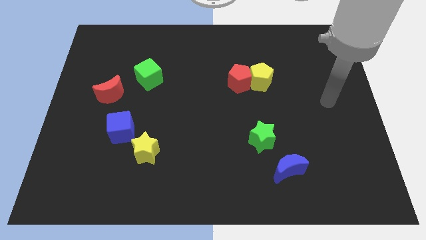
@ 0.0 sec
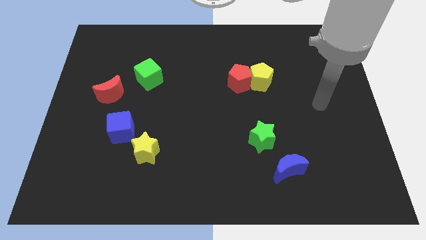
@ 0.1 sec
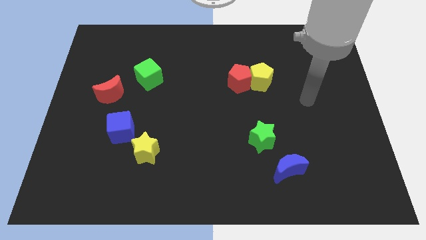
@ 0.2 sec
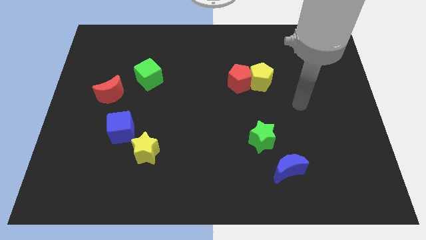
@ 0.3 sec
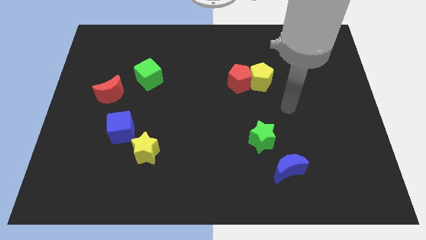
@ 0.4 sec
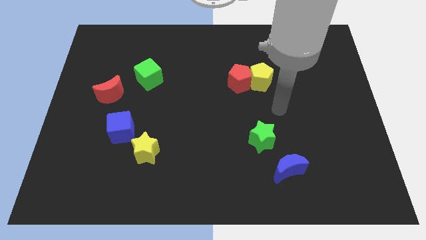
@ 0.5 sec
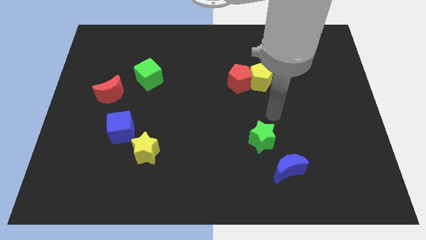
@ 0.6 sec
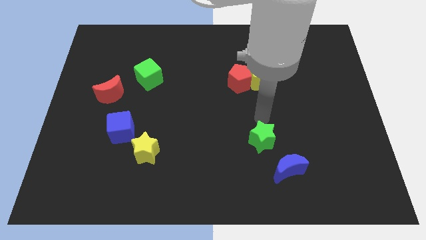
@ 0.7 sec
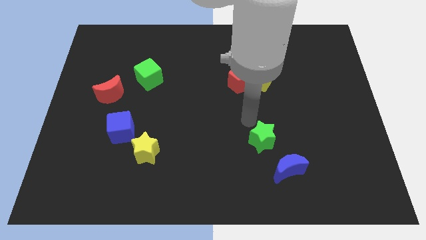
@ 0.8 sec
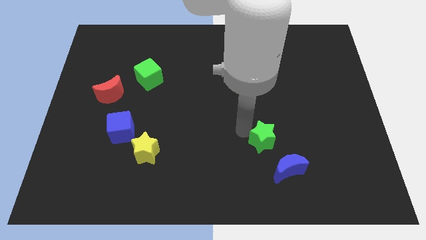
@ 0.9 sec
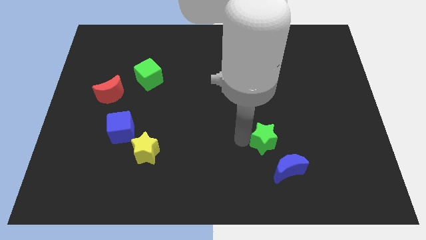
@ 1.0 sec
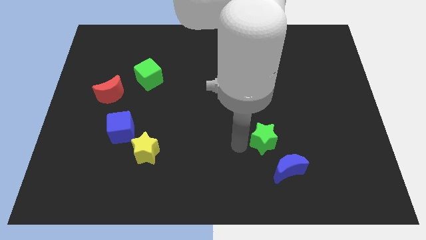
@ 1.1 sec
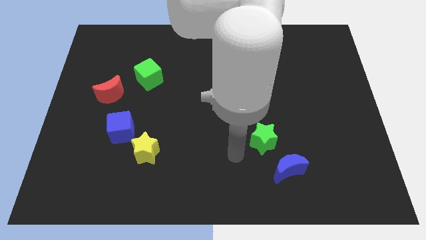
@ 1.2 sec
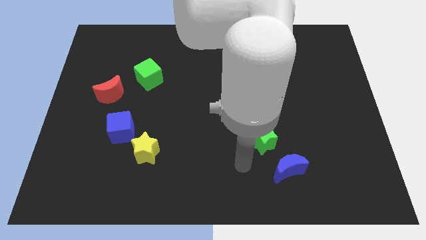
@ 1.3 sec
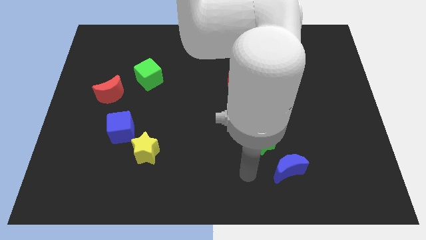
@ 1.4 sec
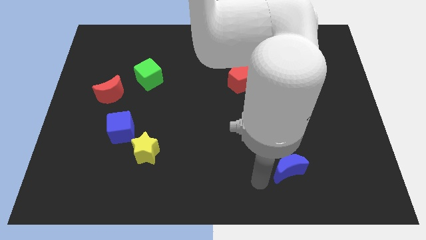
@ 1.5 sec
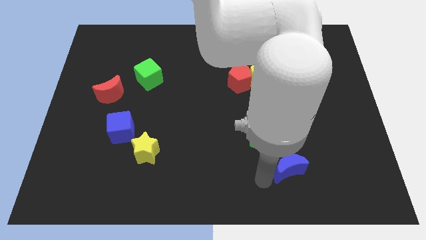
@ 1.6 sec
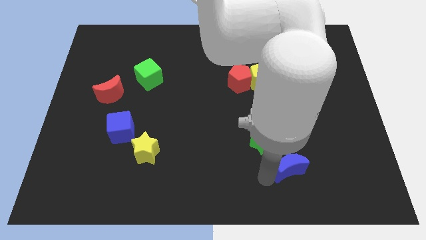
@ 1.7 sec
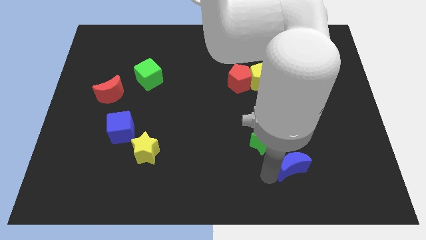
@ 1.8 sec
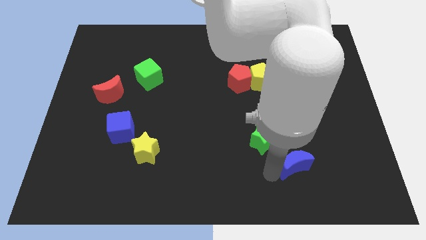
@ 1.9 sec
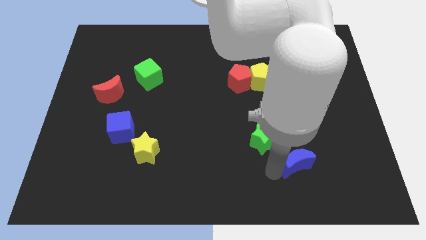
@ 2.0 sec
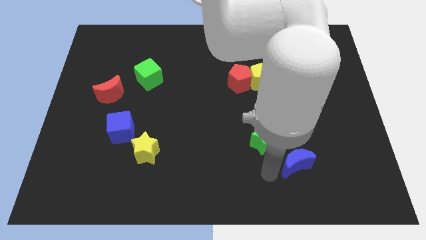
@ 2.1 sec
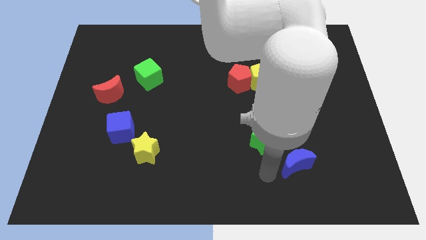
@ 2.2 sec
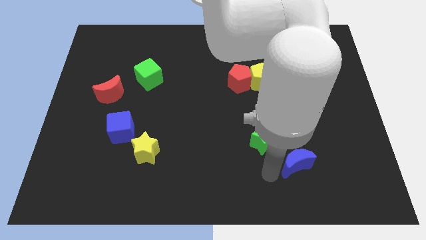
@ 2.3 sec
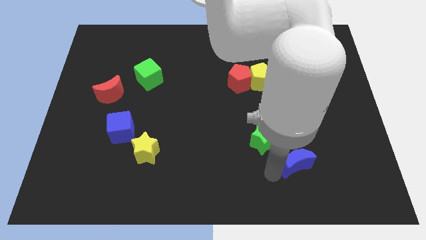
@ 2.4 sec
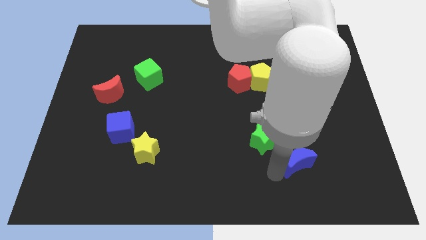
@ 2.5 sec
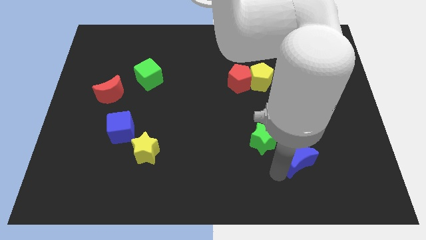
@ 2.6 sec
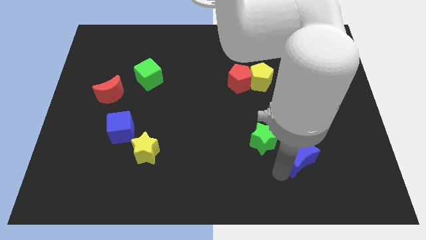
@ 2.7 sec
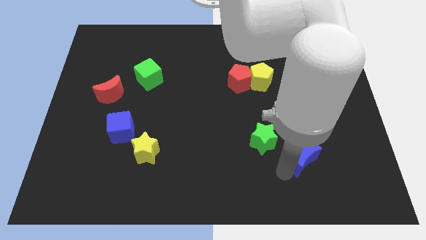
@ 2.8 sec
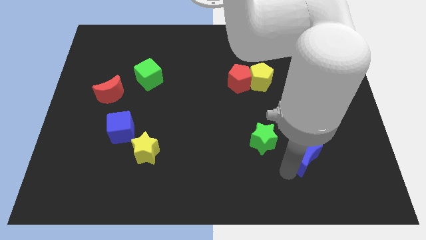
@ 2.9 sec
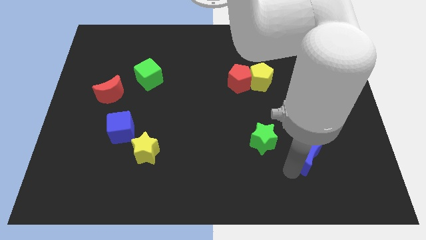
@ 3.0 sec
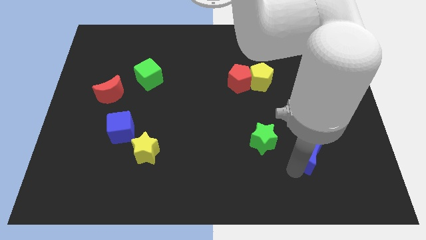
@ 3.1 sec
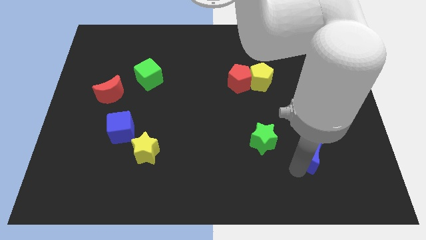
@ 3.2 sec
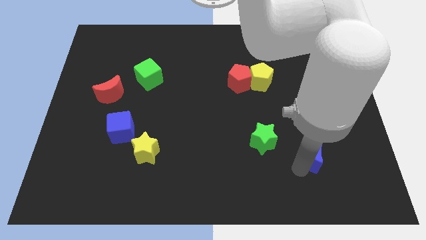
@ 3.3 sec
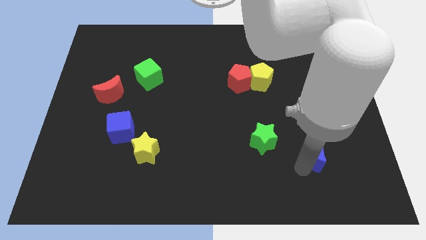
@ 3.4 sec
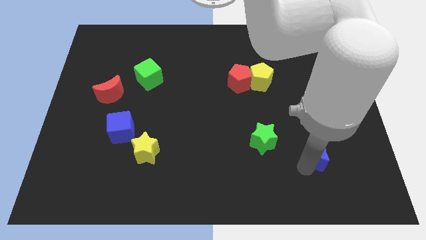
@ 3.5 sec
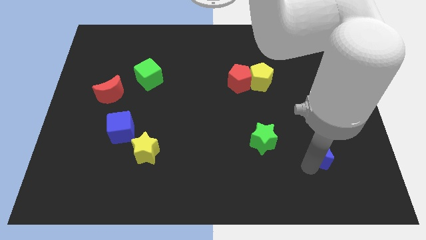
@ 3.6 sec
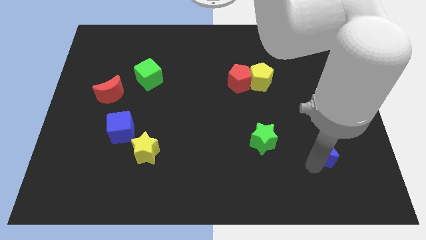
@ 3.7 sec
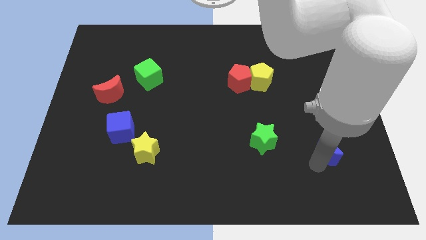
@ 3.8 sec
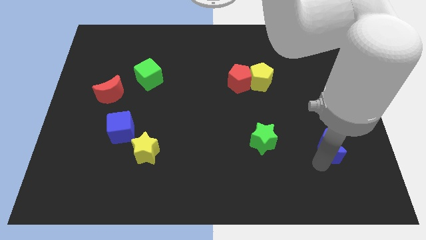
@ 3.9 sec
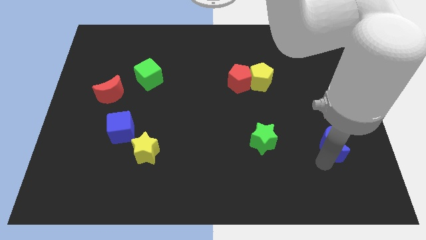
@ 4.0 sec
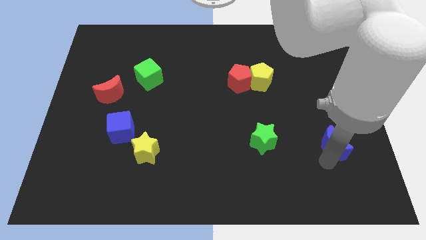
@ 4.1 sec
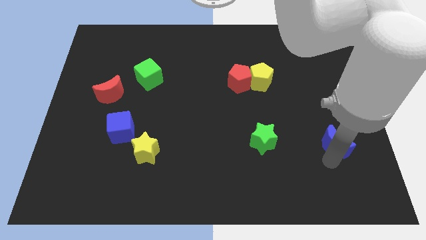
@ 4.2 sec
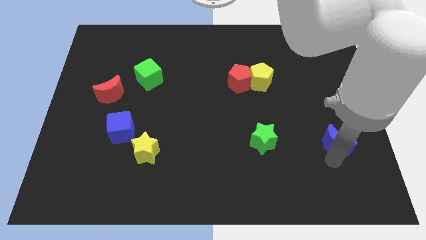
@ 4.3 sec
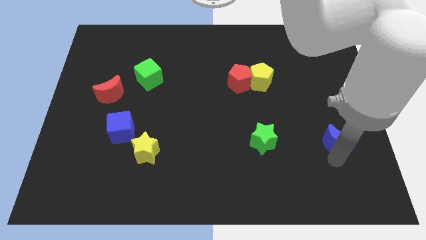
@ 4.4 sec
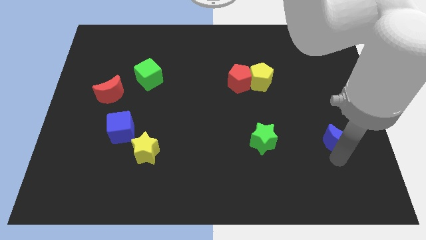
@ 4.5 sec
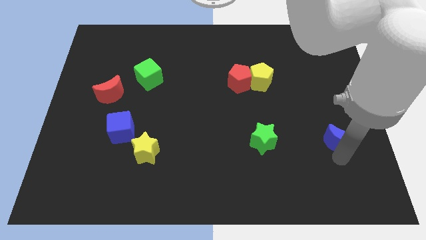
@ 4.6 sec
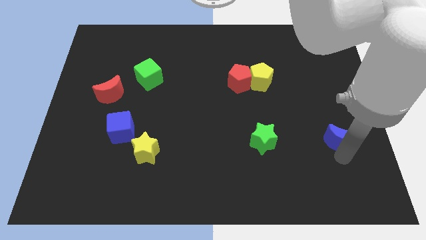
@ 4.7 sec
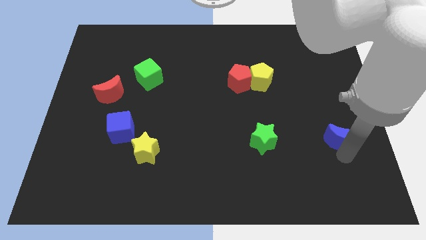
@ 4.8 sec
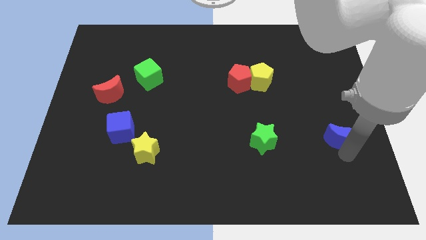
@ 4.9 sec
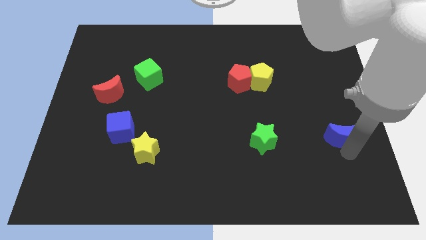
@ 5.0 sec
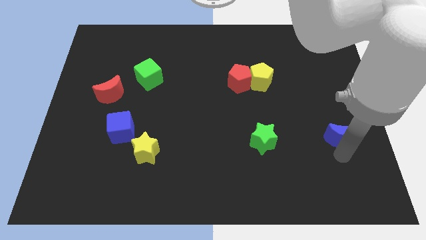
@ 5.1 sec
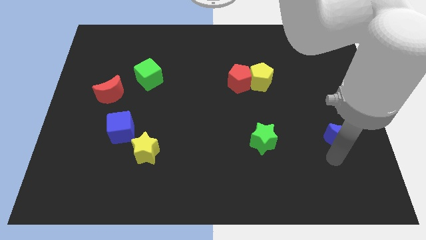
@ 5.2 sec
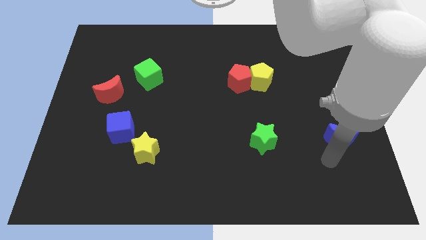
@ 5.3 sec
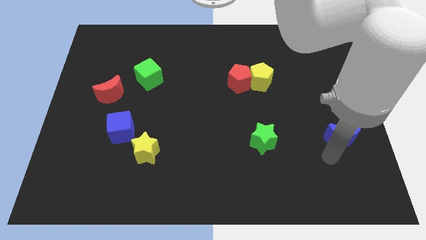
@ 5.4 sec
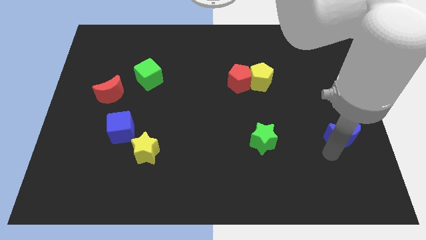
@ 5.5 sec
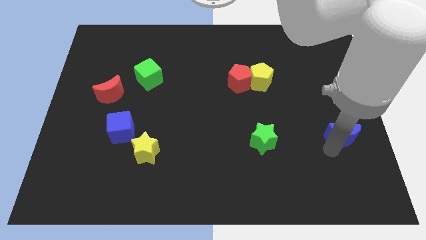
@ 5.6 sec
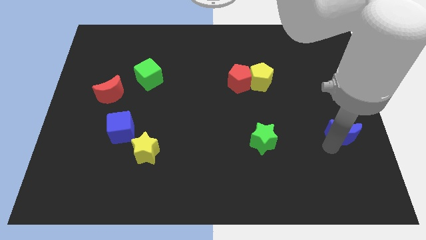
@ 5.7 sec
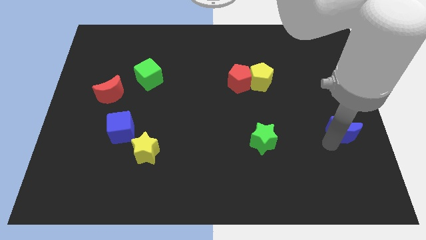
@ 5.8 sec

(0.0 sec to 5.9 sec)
put the blue moon to the center right

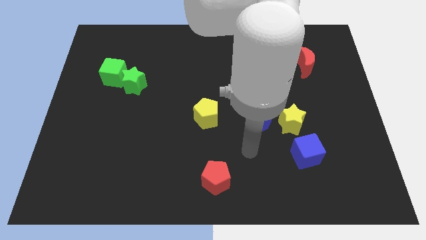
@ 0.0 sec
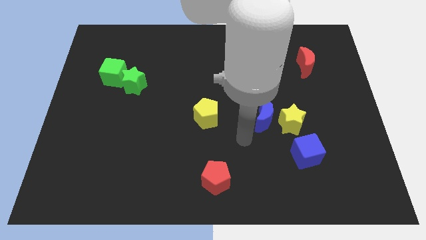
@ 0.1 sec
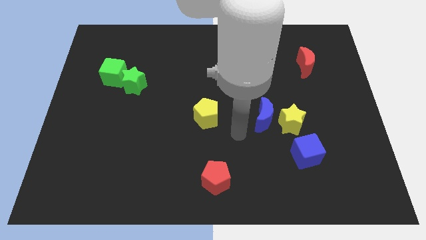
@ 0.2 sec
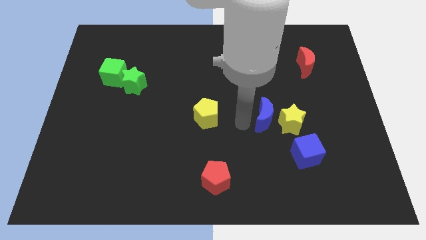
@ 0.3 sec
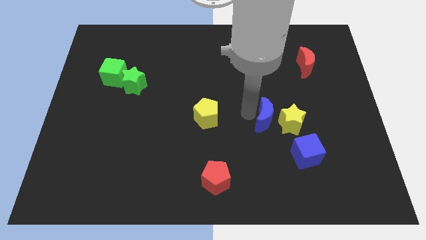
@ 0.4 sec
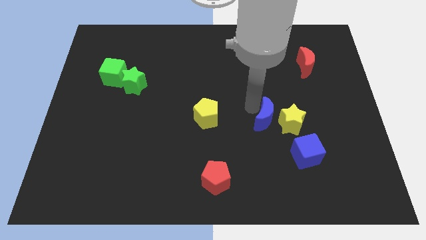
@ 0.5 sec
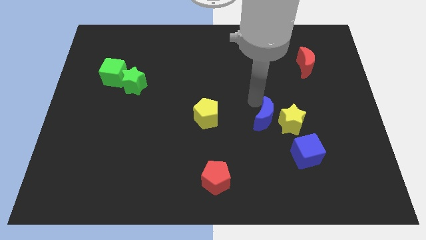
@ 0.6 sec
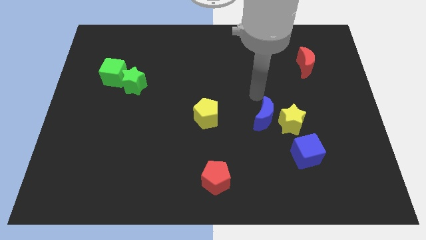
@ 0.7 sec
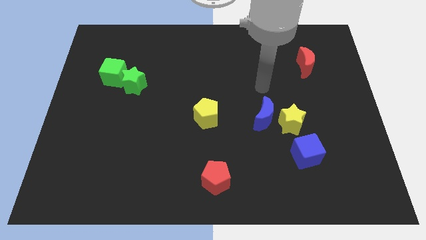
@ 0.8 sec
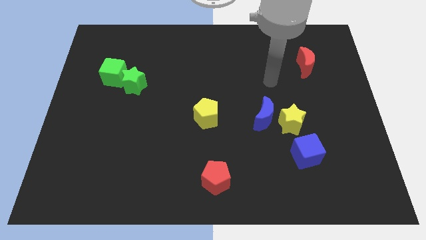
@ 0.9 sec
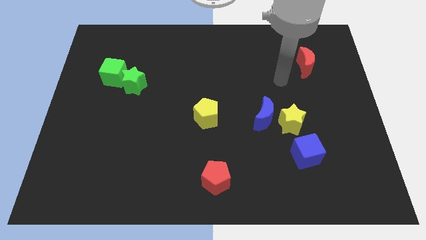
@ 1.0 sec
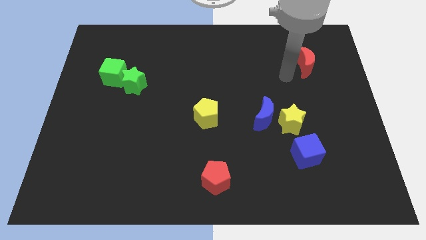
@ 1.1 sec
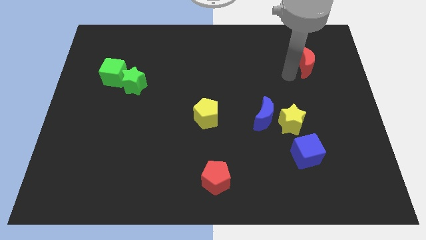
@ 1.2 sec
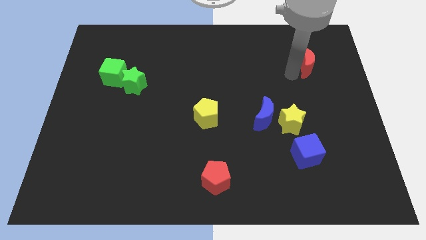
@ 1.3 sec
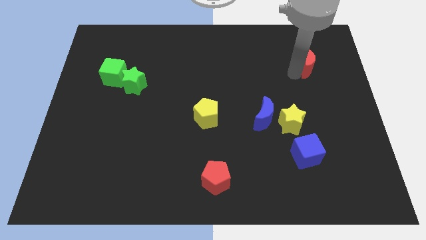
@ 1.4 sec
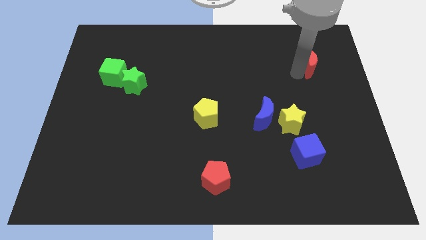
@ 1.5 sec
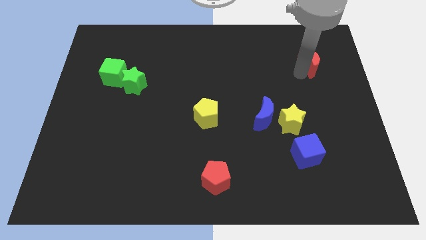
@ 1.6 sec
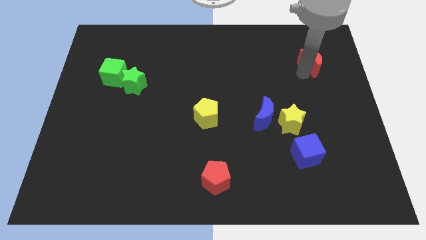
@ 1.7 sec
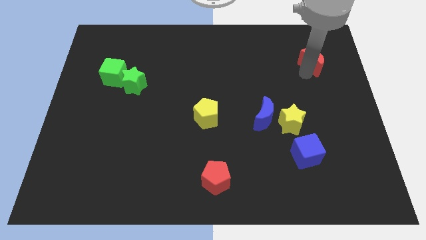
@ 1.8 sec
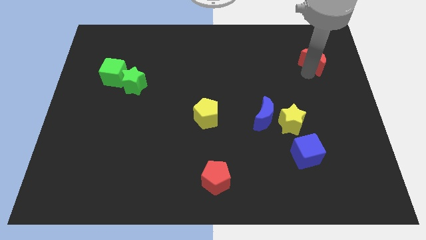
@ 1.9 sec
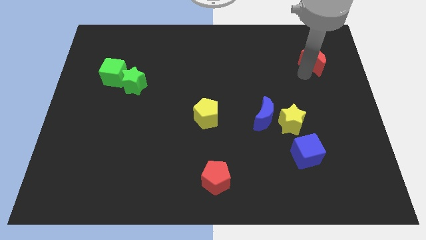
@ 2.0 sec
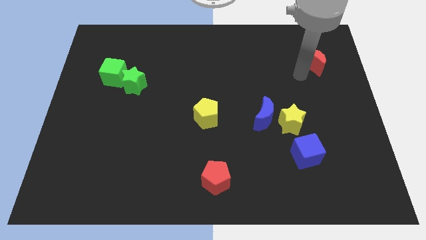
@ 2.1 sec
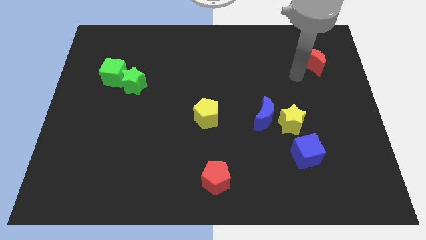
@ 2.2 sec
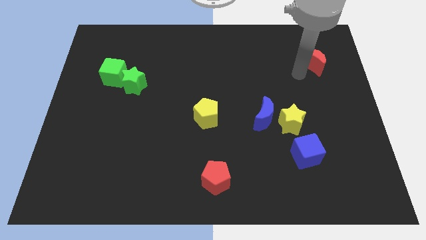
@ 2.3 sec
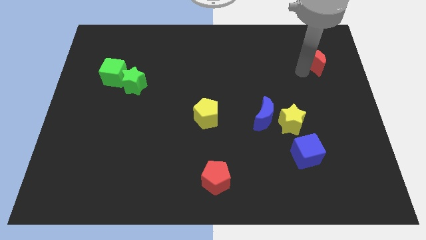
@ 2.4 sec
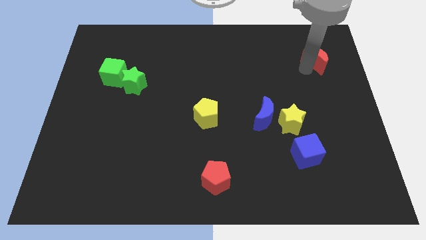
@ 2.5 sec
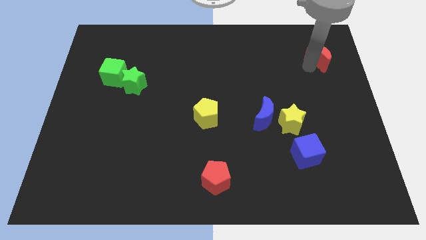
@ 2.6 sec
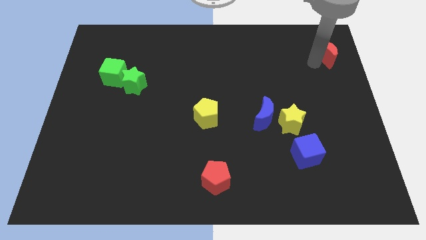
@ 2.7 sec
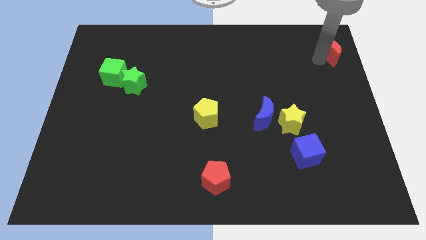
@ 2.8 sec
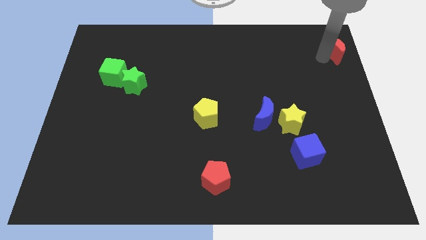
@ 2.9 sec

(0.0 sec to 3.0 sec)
push the red moon to the top right
